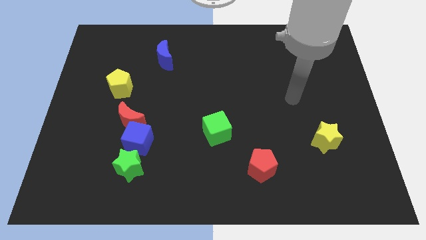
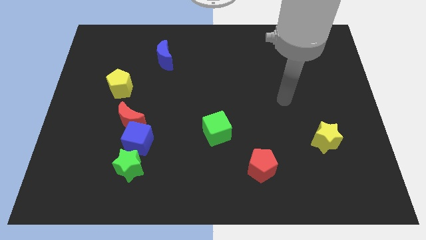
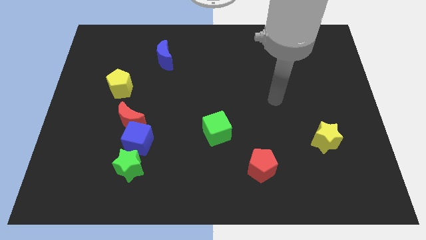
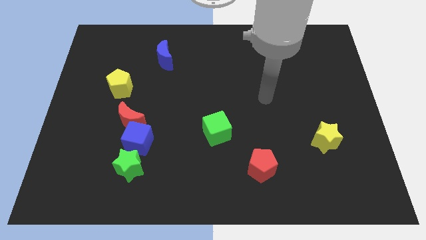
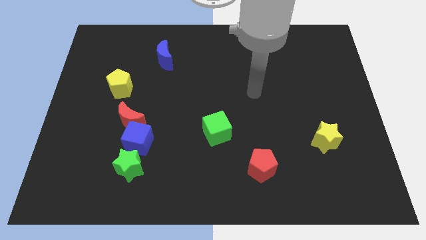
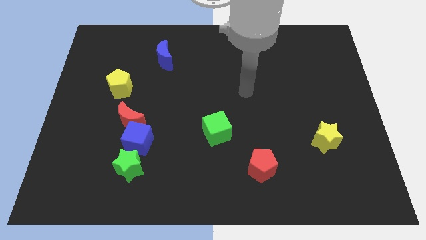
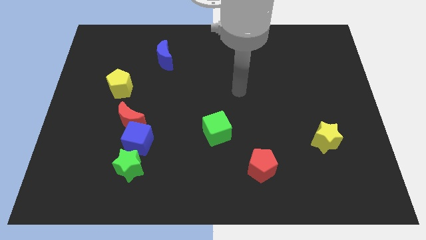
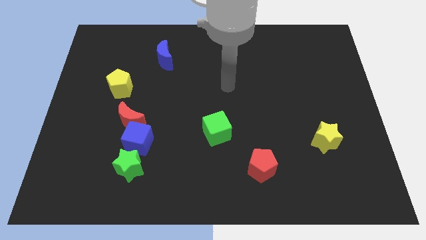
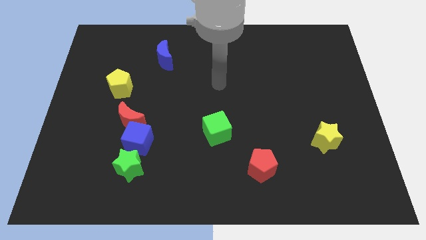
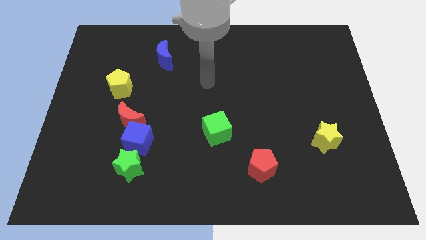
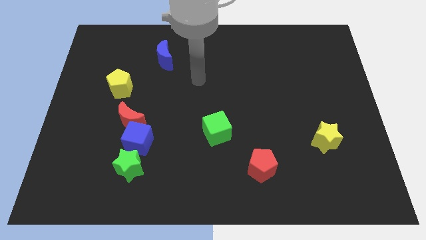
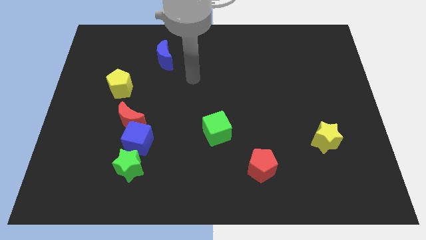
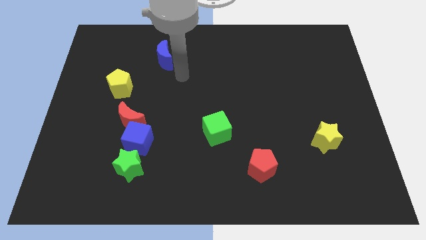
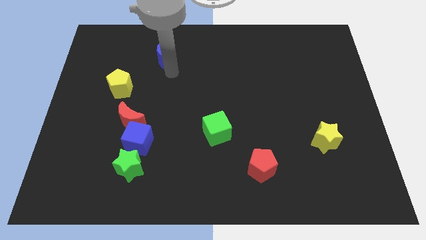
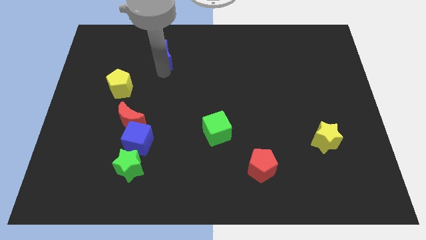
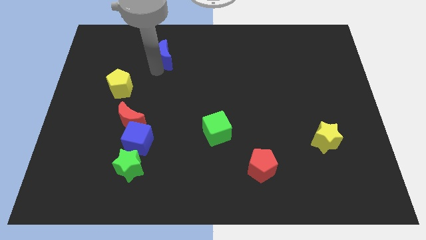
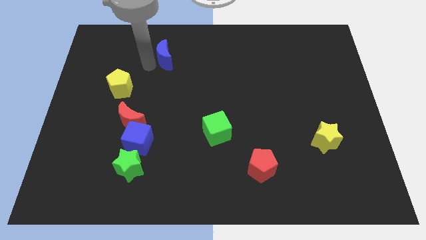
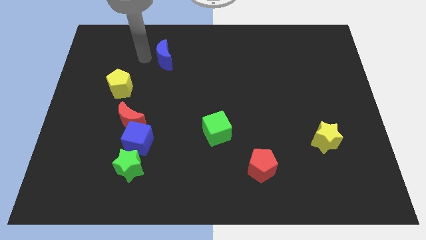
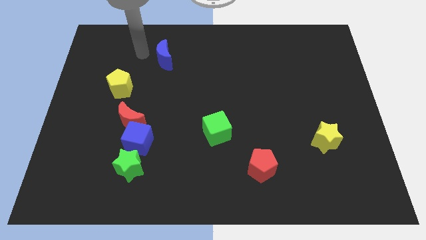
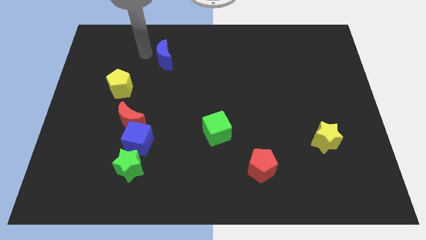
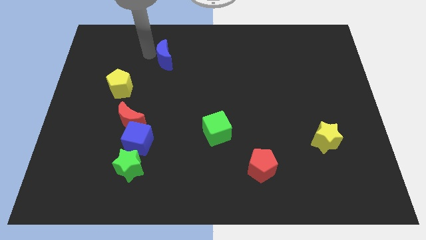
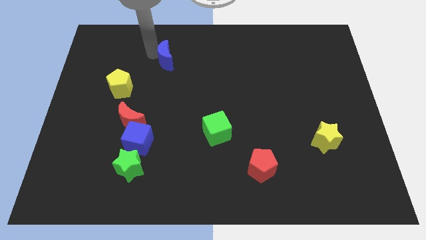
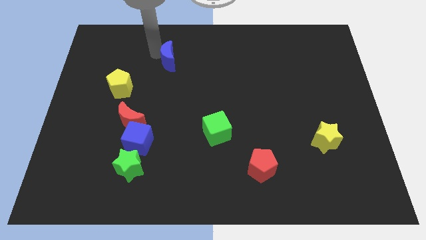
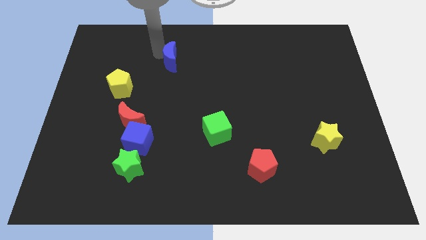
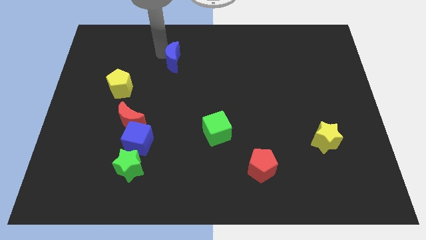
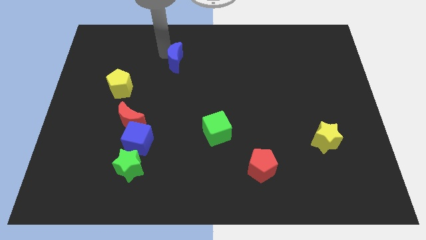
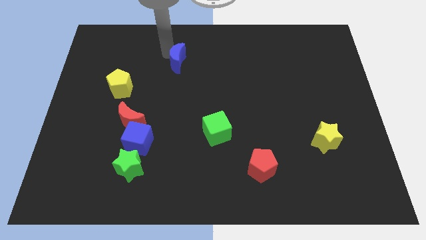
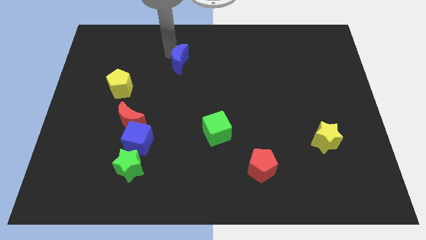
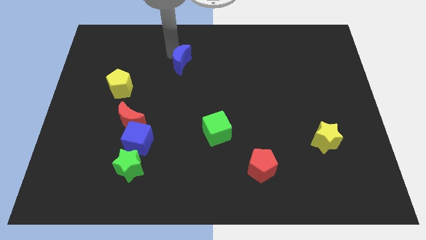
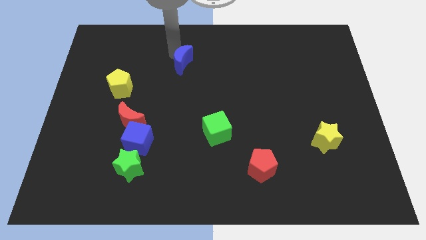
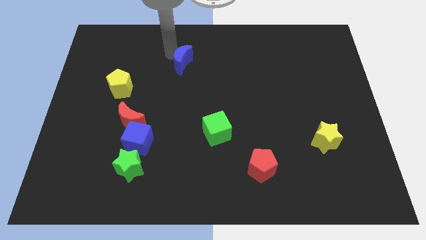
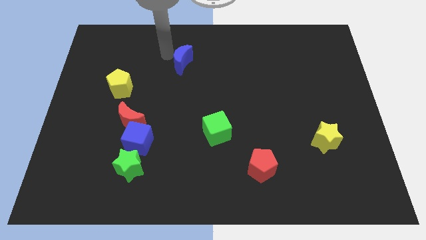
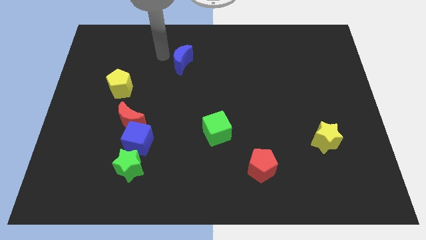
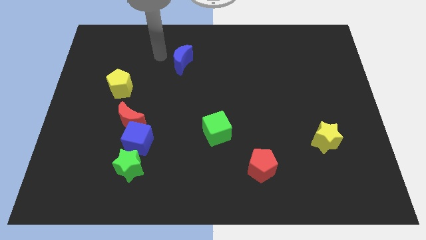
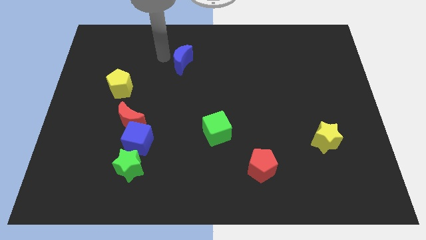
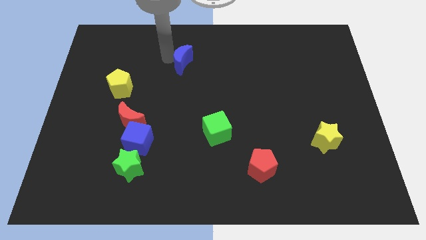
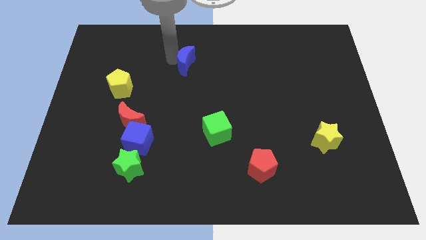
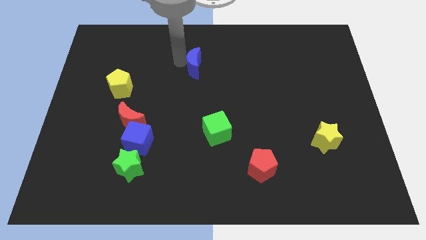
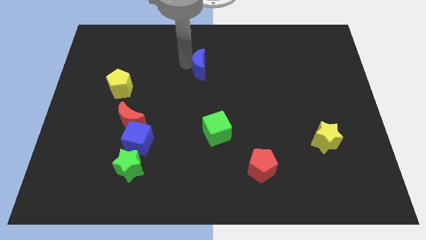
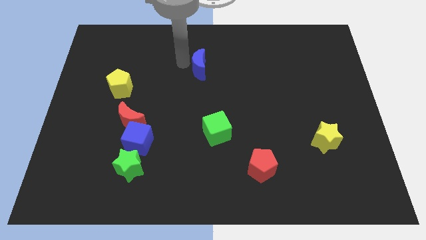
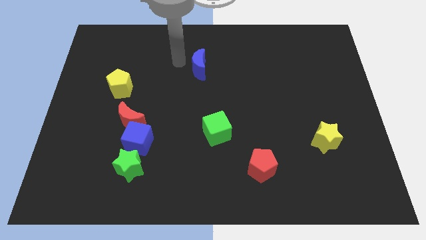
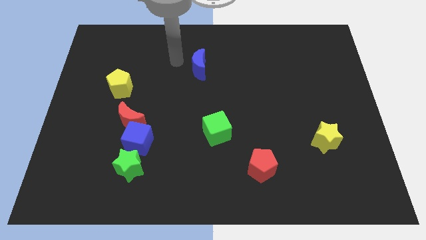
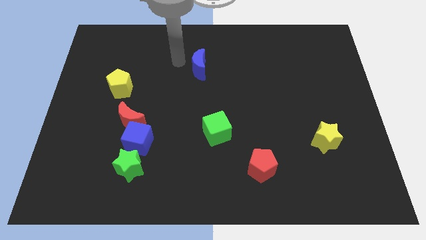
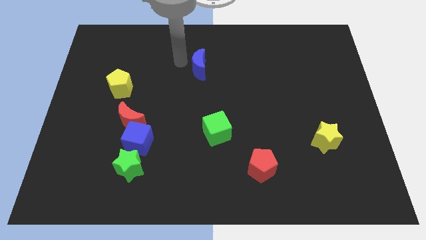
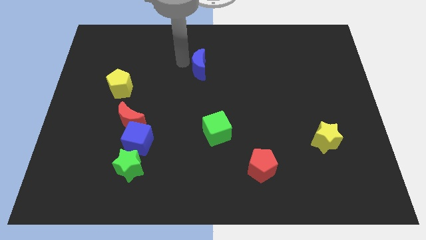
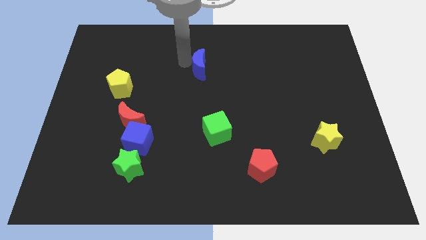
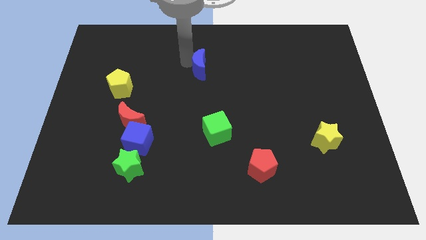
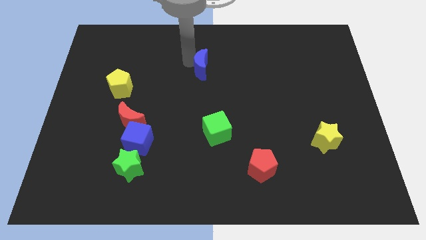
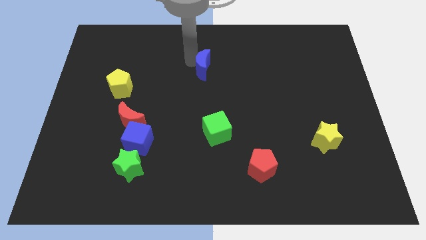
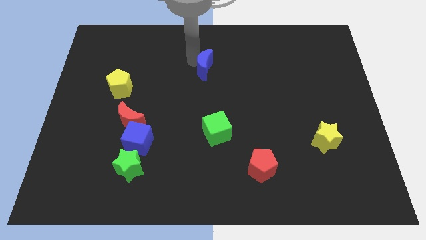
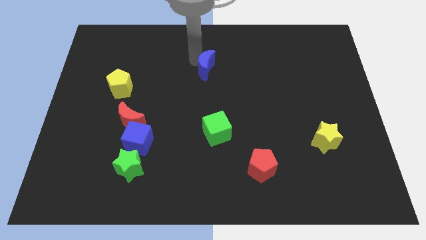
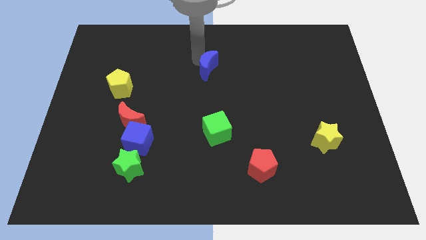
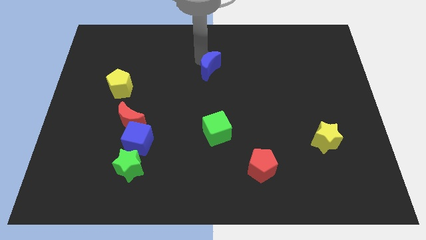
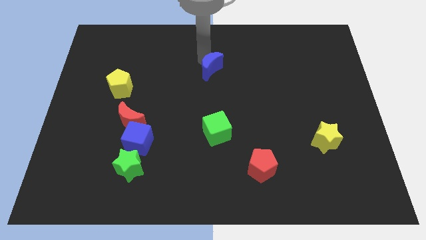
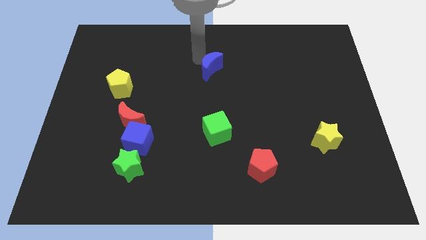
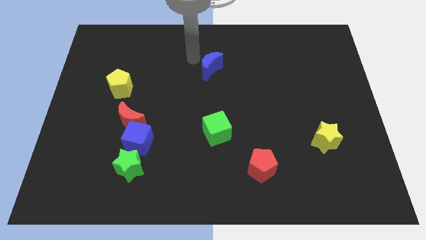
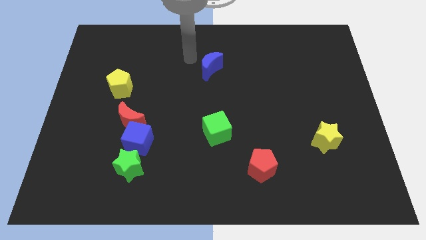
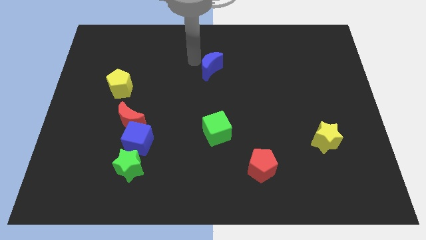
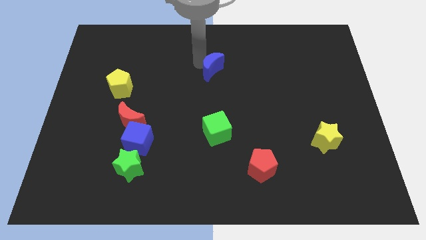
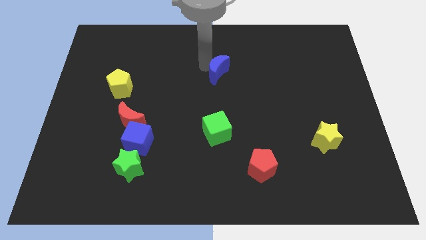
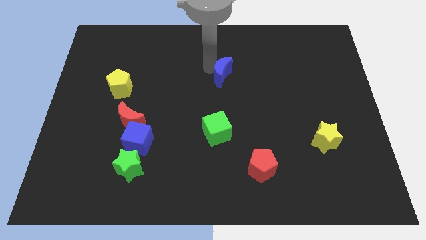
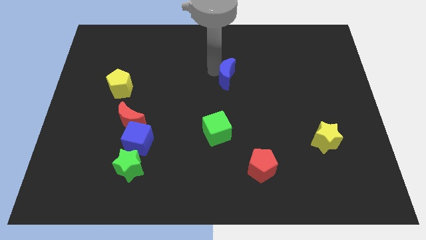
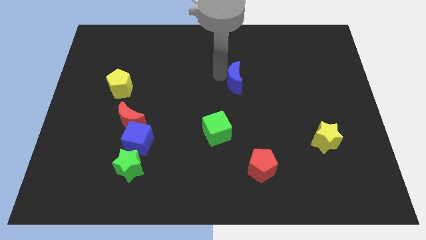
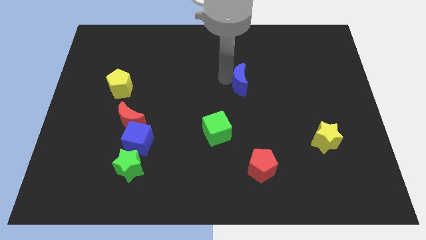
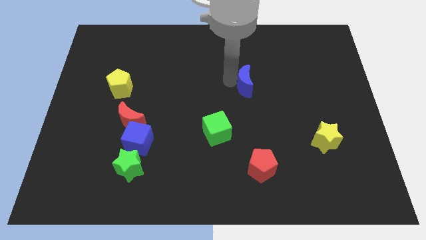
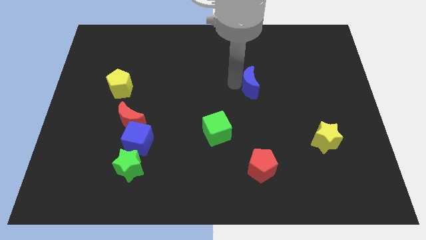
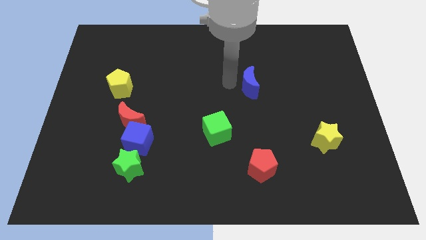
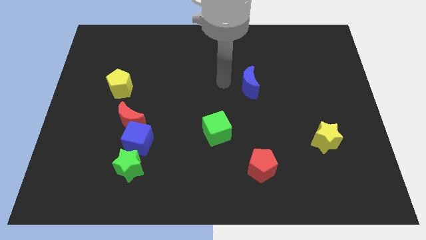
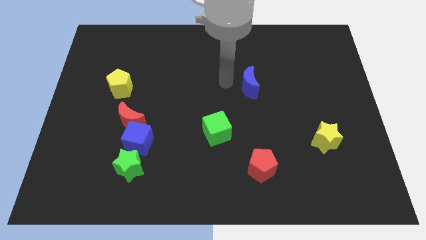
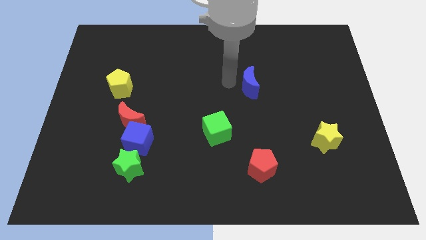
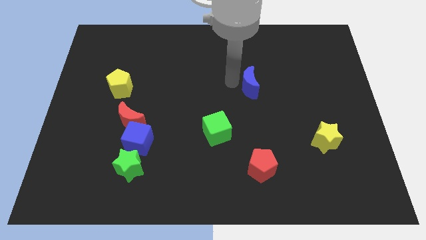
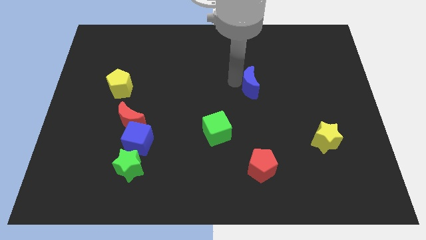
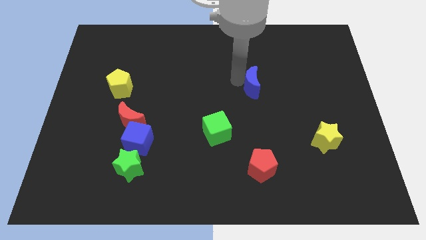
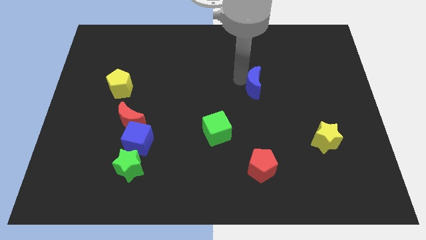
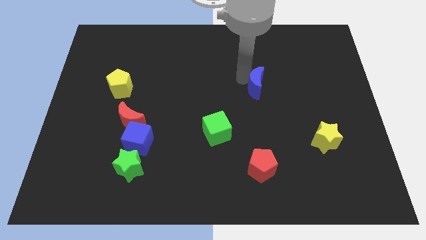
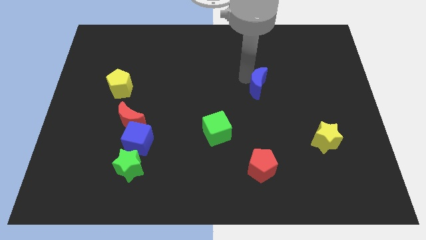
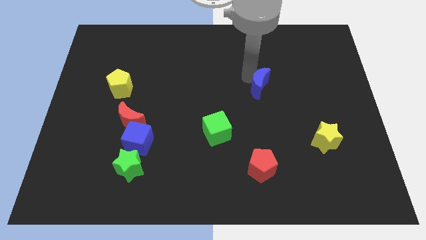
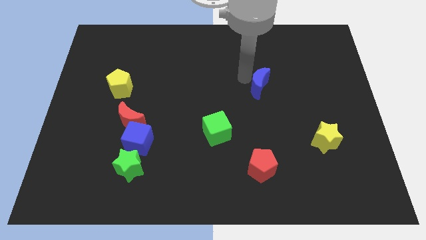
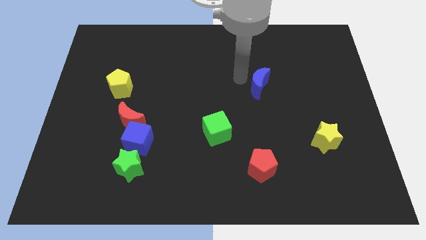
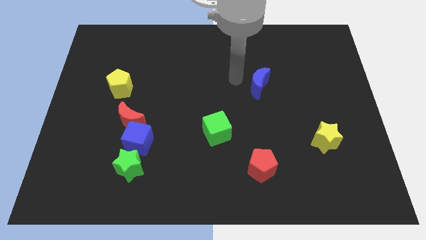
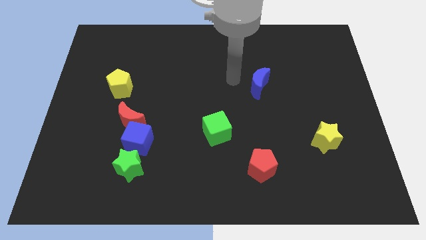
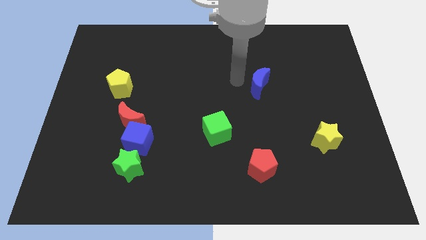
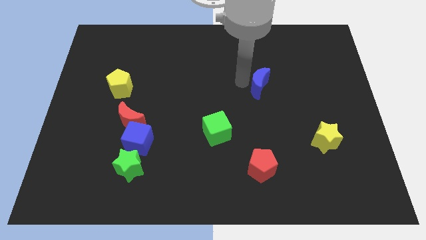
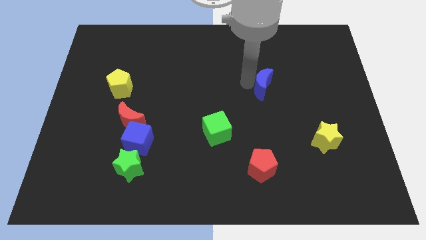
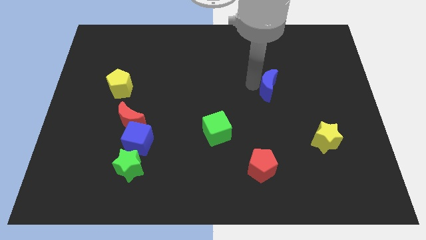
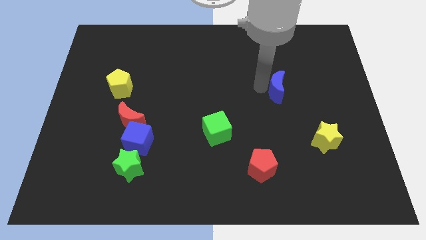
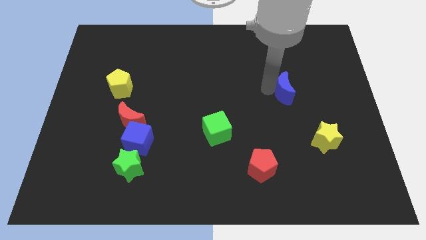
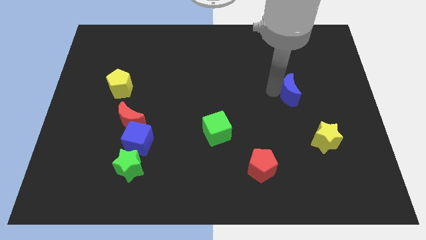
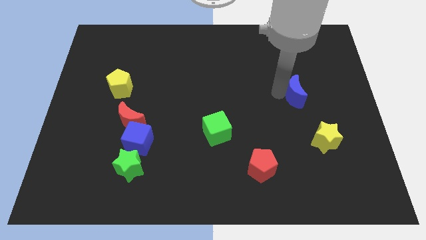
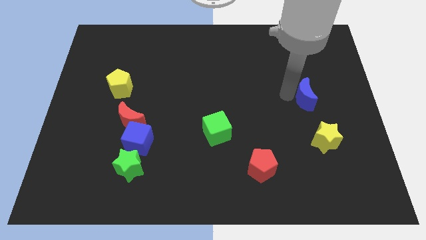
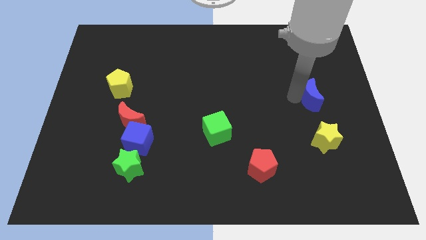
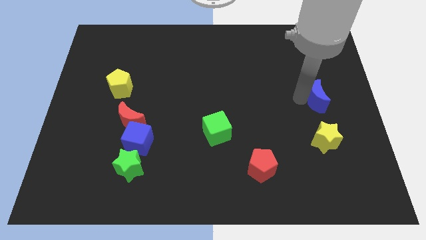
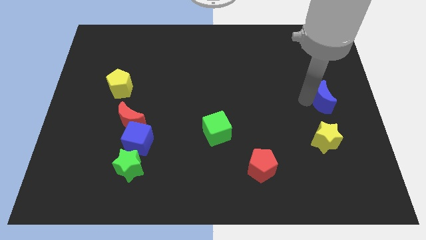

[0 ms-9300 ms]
put the blue moon to the right side
